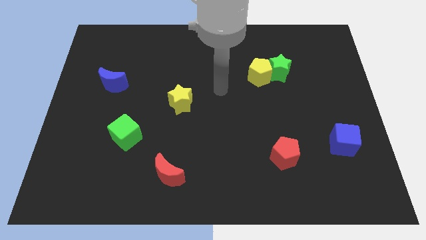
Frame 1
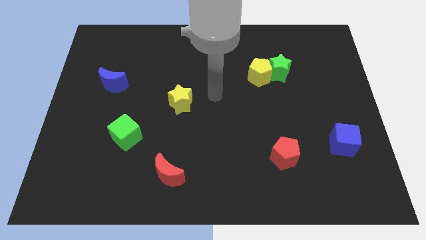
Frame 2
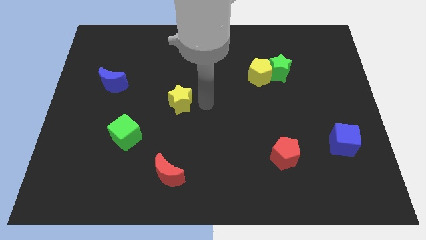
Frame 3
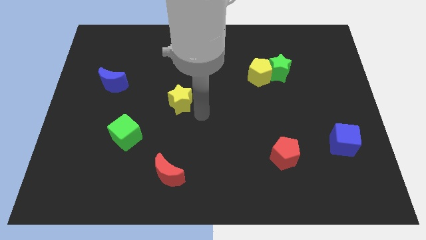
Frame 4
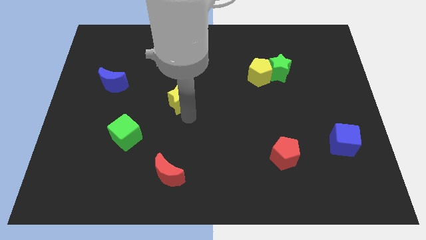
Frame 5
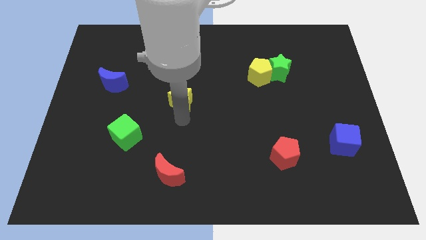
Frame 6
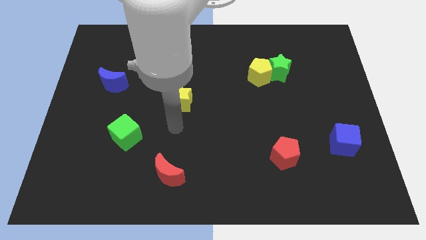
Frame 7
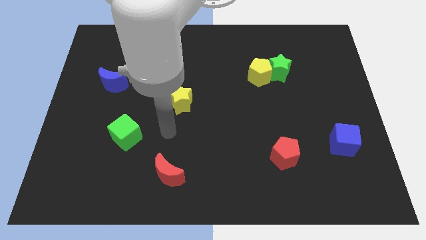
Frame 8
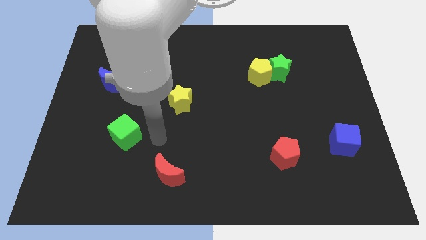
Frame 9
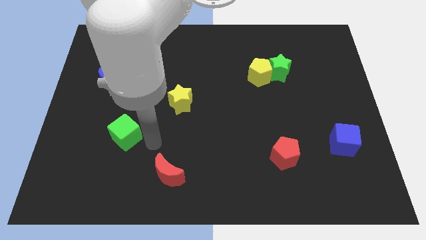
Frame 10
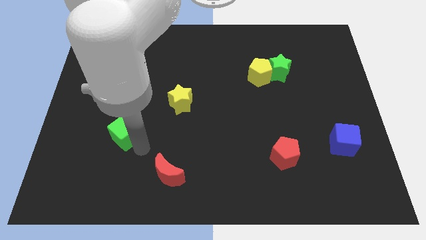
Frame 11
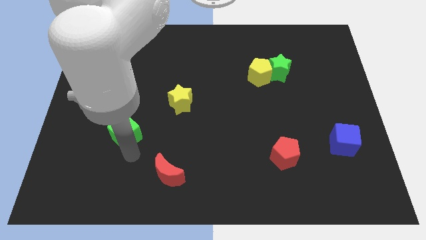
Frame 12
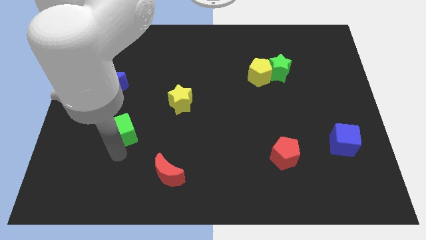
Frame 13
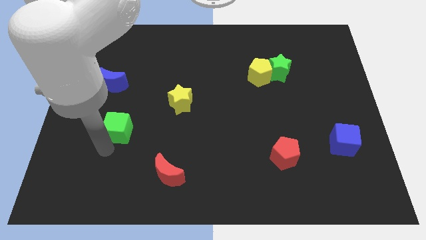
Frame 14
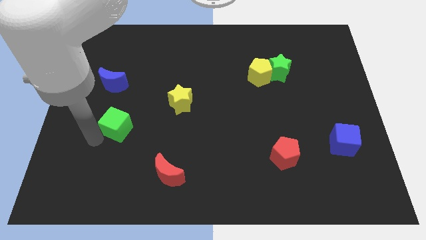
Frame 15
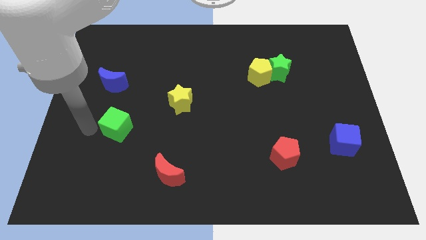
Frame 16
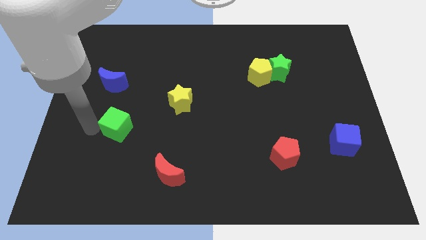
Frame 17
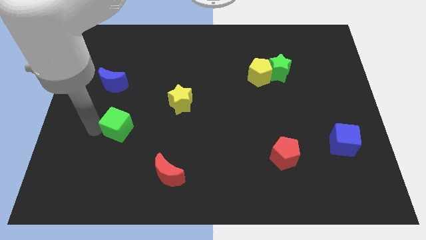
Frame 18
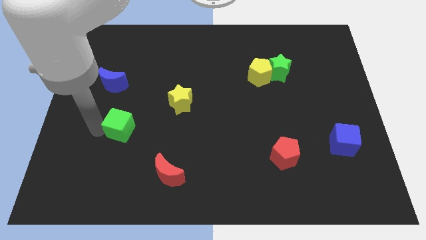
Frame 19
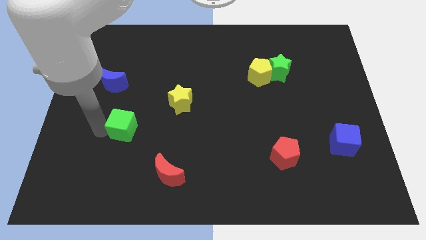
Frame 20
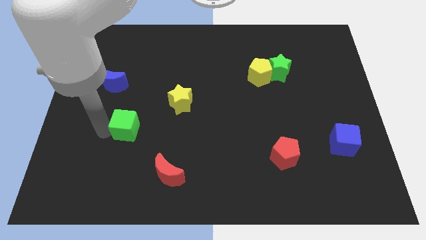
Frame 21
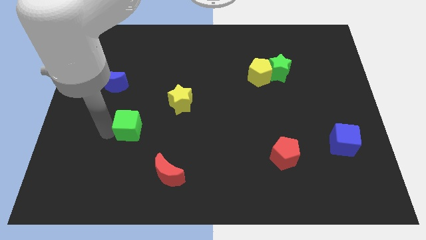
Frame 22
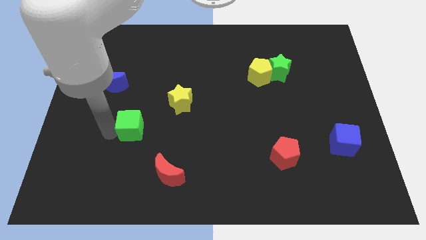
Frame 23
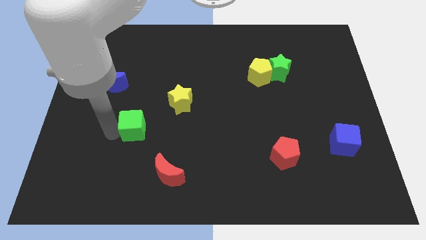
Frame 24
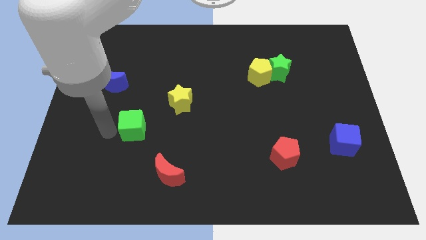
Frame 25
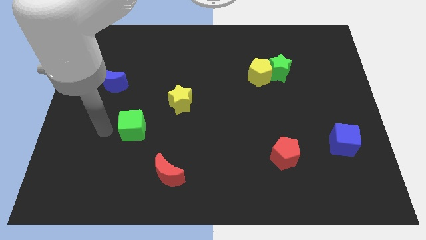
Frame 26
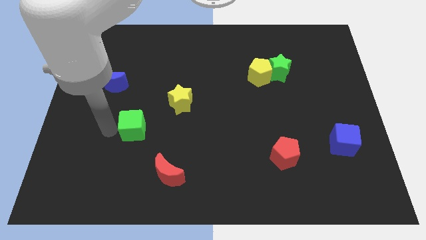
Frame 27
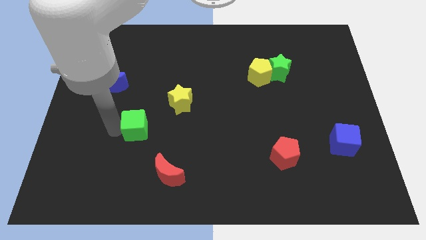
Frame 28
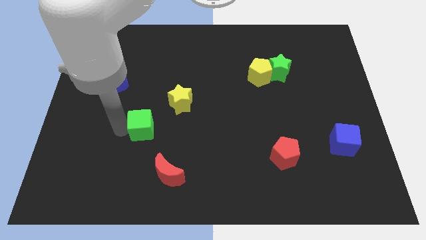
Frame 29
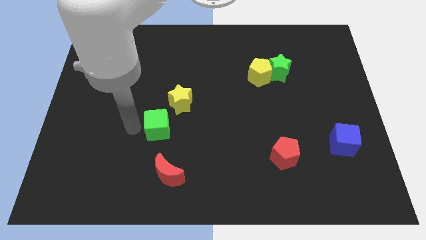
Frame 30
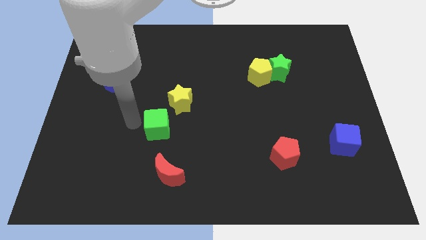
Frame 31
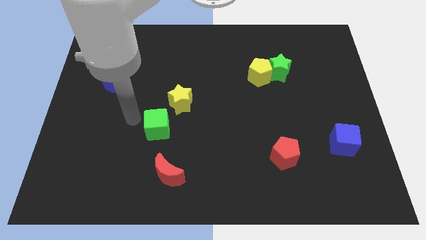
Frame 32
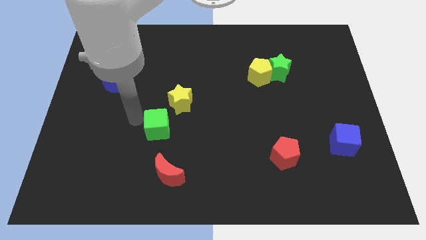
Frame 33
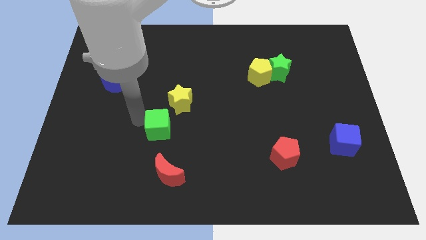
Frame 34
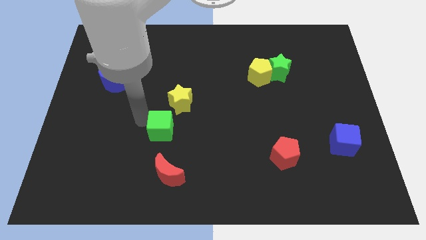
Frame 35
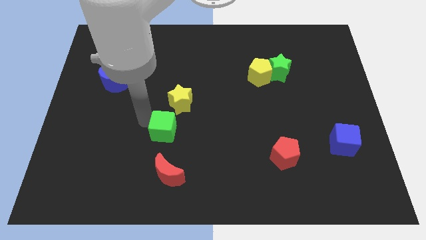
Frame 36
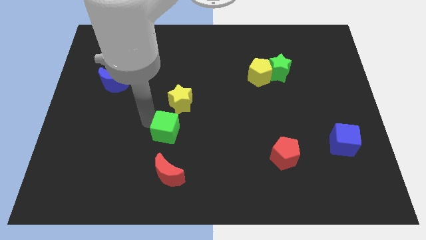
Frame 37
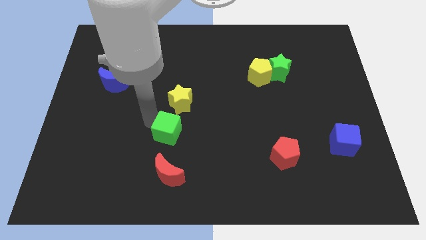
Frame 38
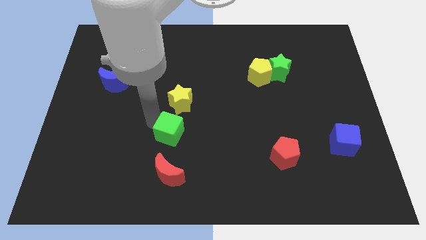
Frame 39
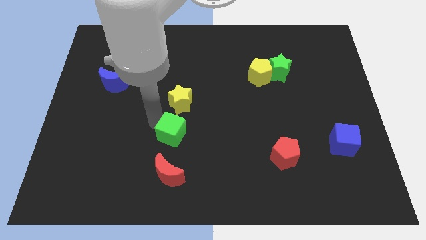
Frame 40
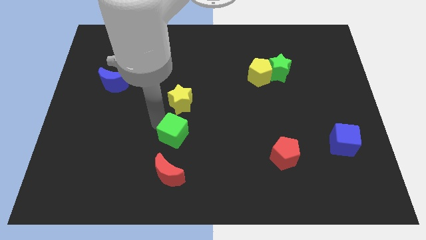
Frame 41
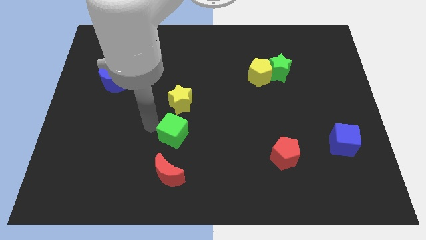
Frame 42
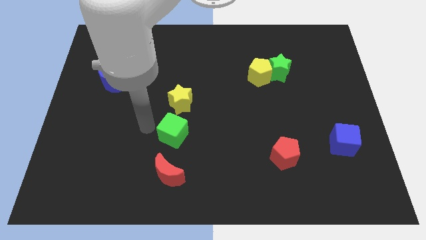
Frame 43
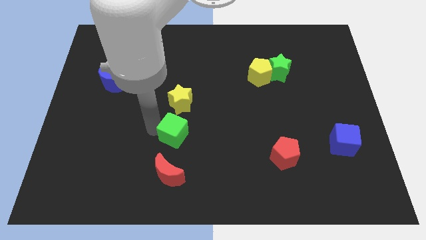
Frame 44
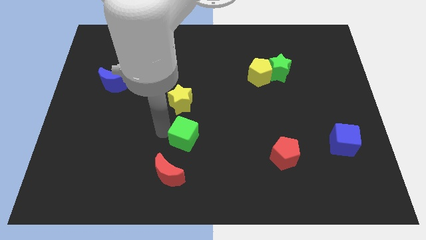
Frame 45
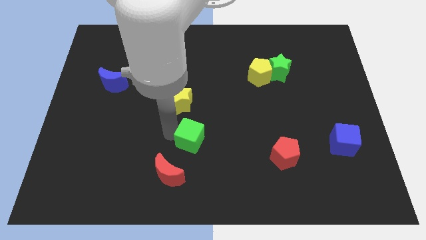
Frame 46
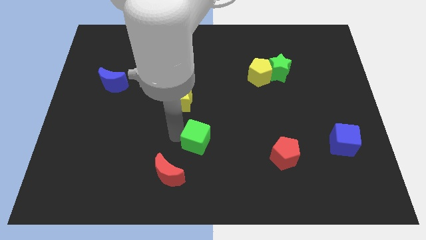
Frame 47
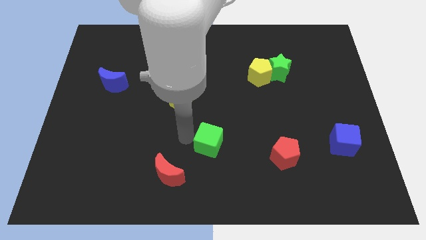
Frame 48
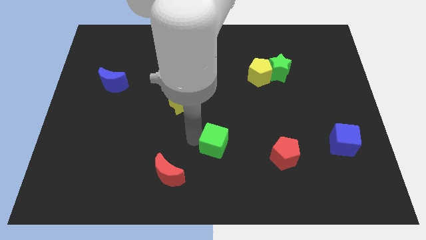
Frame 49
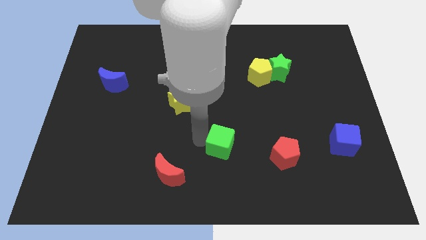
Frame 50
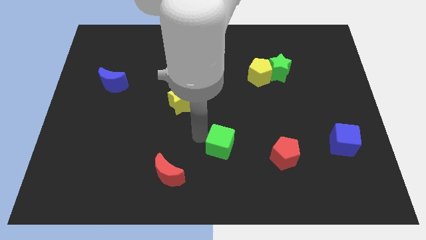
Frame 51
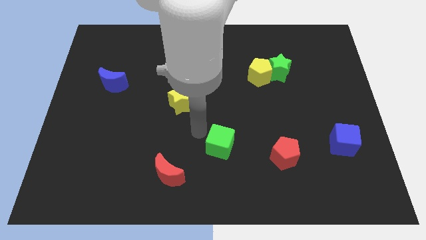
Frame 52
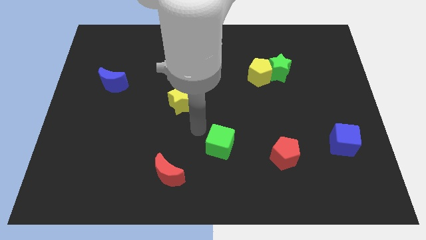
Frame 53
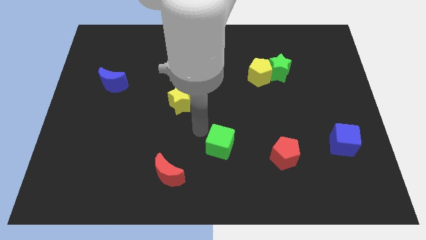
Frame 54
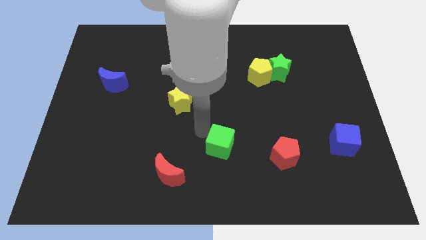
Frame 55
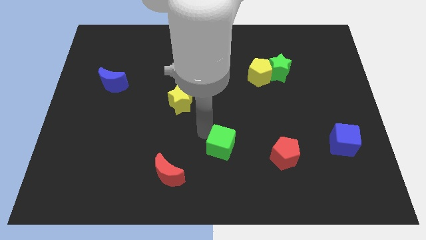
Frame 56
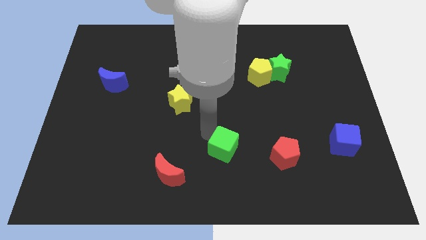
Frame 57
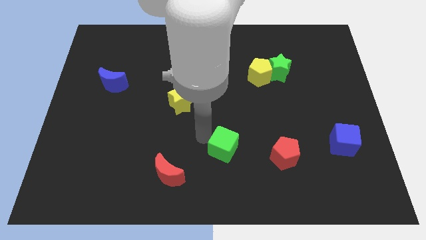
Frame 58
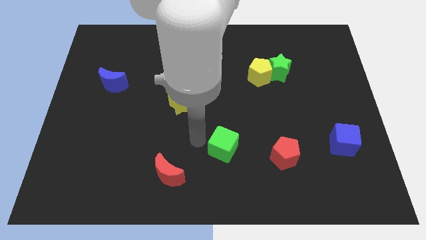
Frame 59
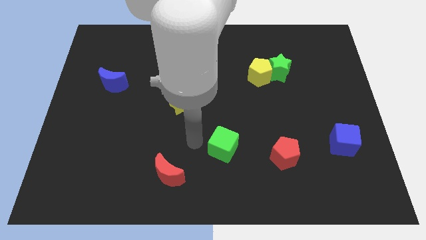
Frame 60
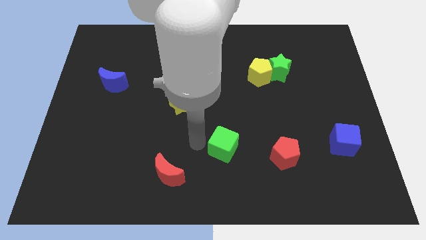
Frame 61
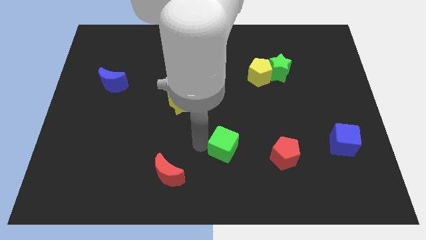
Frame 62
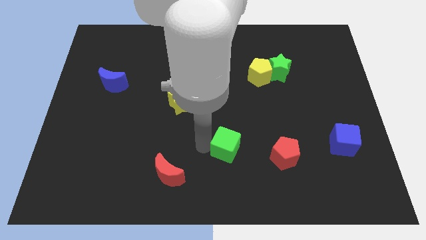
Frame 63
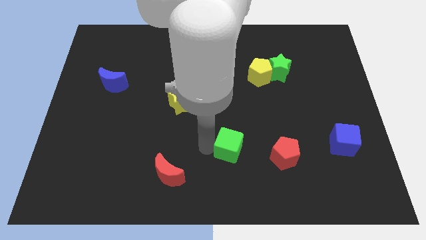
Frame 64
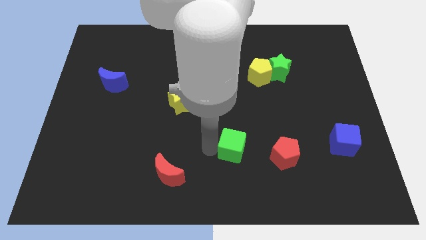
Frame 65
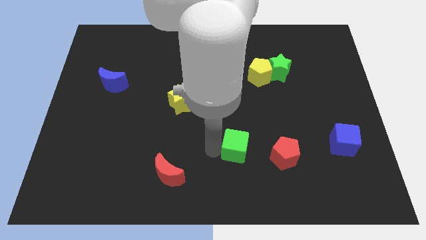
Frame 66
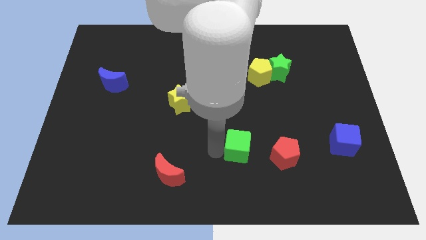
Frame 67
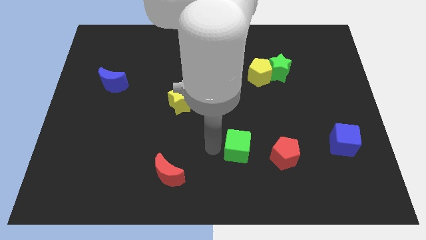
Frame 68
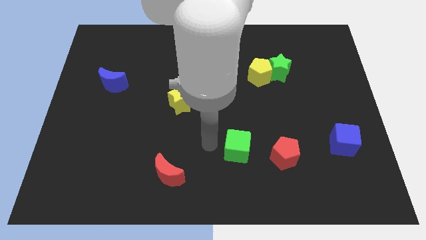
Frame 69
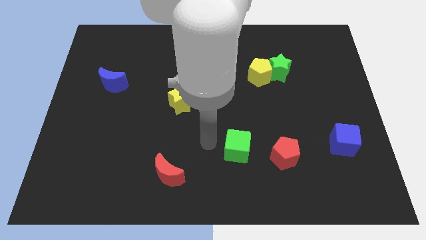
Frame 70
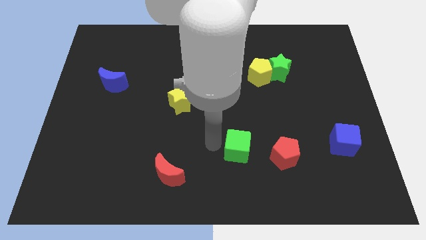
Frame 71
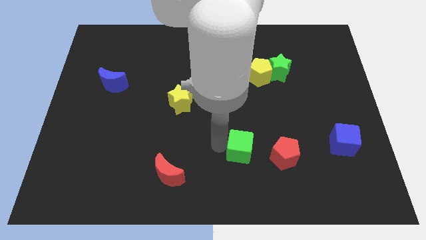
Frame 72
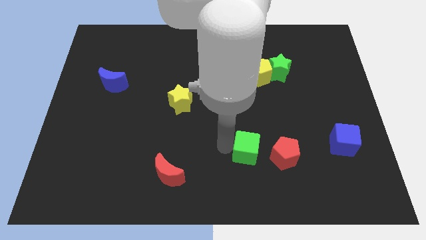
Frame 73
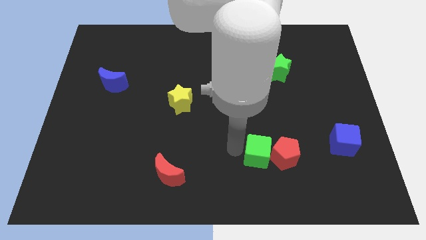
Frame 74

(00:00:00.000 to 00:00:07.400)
slide the green cube next to the red pentagon
